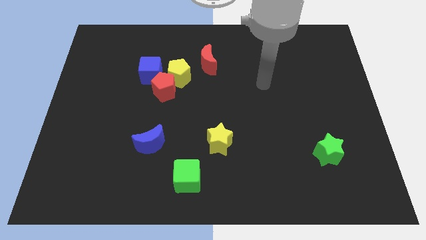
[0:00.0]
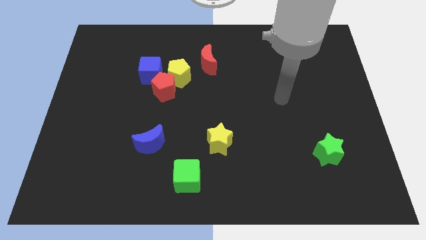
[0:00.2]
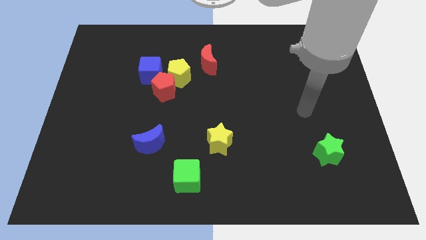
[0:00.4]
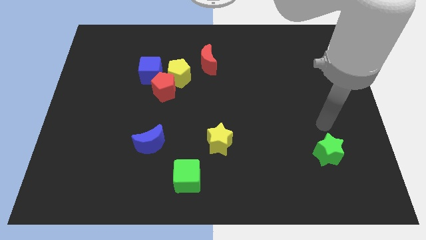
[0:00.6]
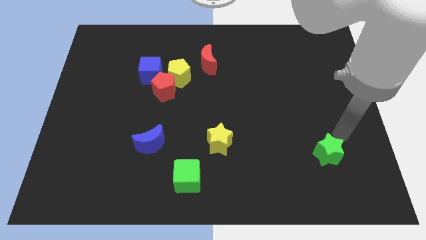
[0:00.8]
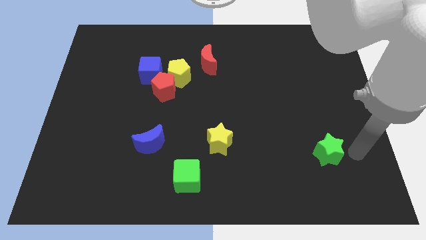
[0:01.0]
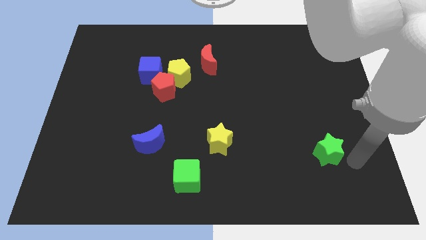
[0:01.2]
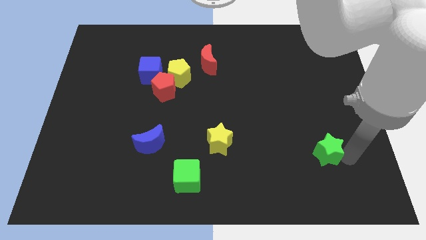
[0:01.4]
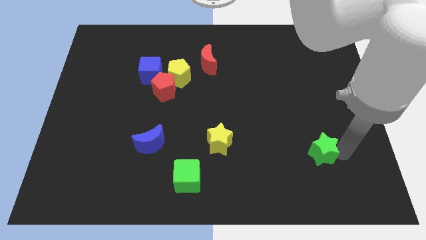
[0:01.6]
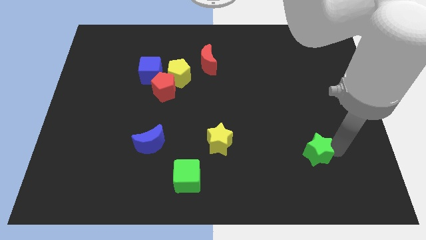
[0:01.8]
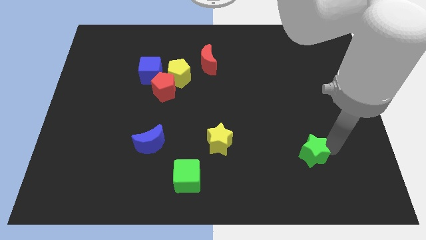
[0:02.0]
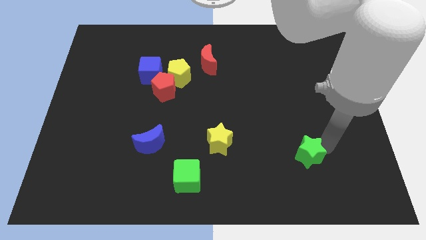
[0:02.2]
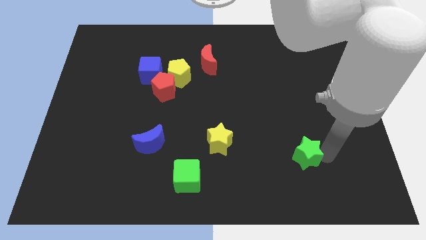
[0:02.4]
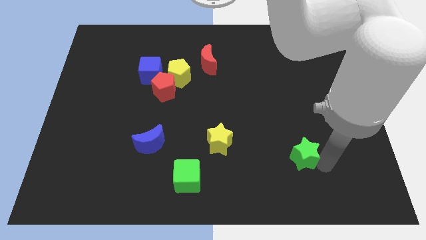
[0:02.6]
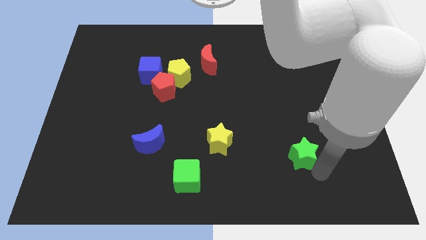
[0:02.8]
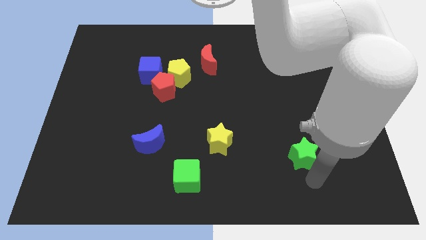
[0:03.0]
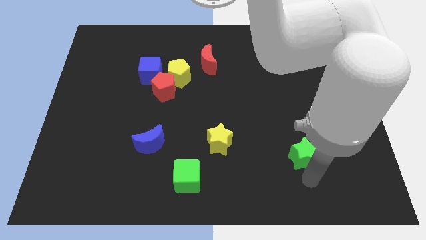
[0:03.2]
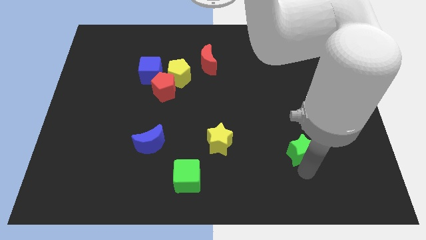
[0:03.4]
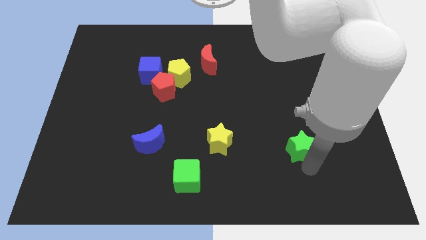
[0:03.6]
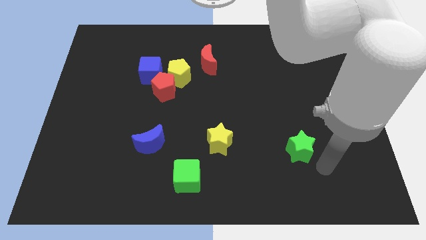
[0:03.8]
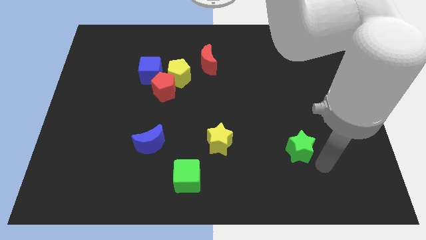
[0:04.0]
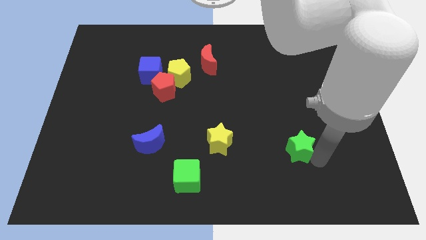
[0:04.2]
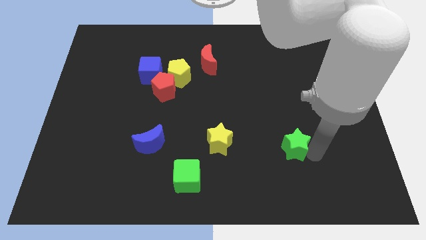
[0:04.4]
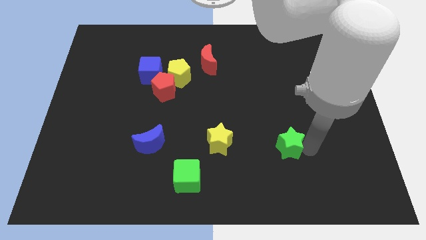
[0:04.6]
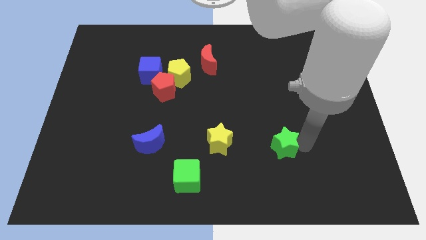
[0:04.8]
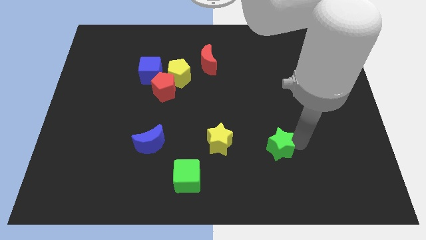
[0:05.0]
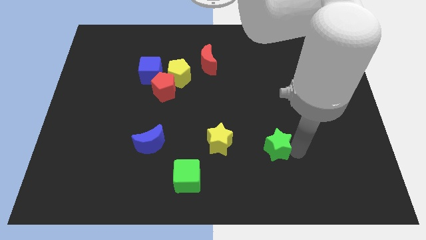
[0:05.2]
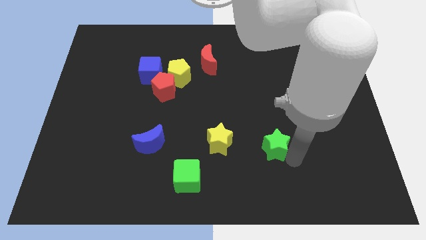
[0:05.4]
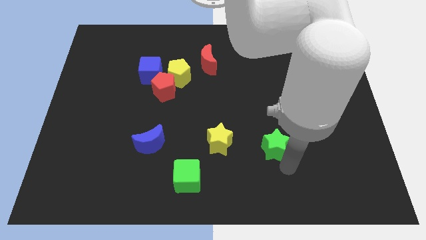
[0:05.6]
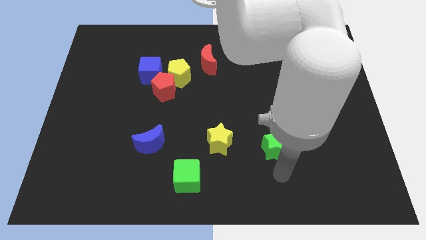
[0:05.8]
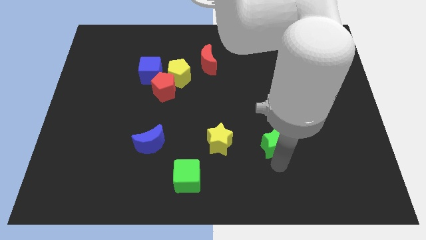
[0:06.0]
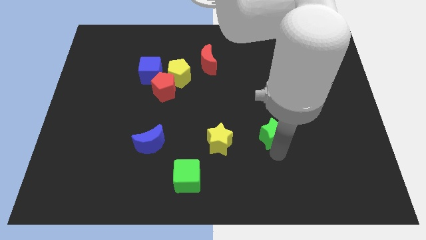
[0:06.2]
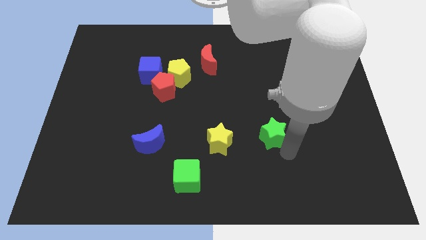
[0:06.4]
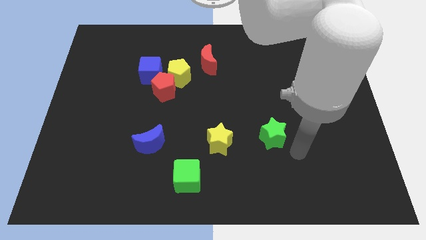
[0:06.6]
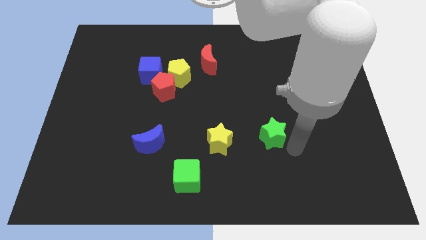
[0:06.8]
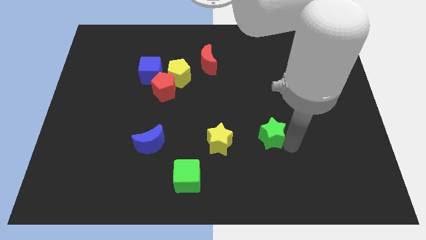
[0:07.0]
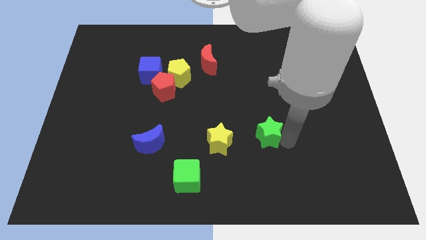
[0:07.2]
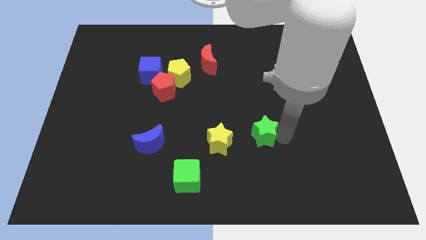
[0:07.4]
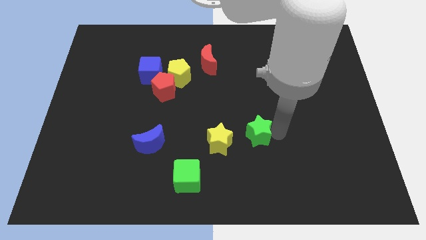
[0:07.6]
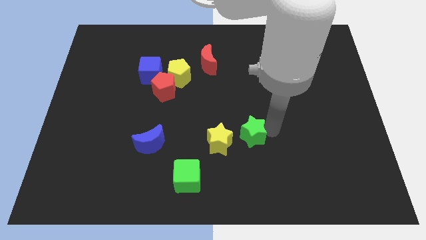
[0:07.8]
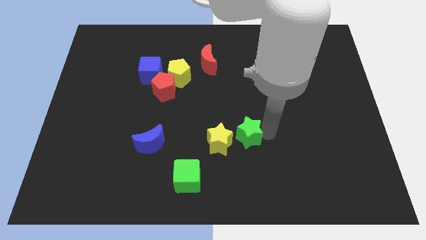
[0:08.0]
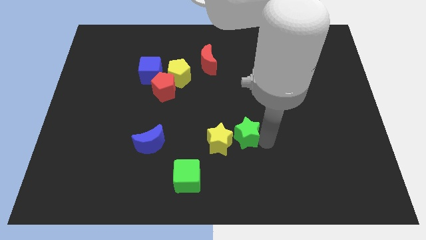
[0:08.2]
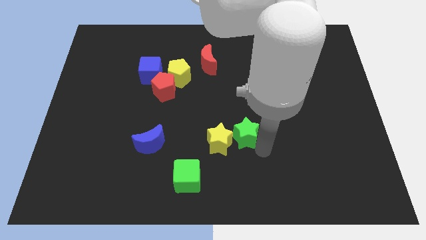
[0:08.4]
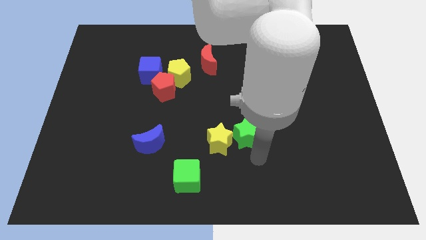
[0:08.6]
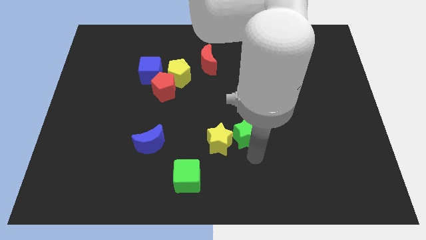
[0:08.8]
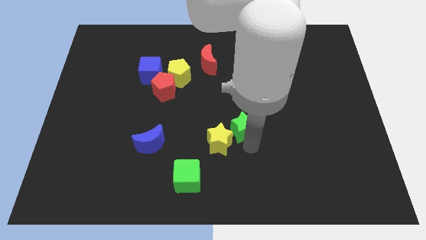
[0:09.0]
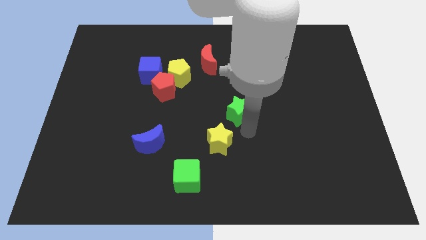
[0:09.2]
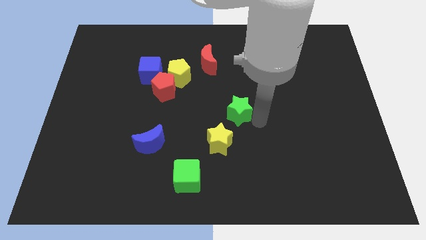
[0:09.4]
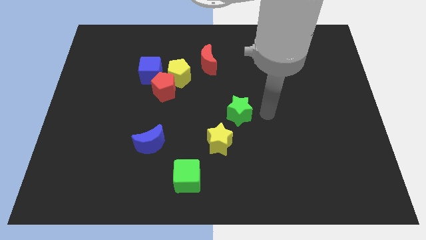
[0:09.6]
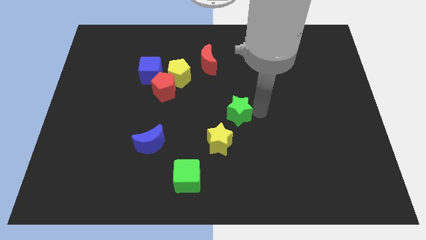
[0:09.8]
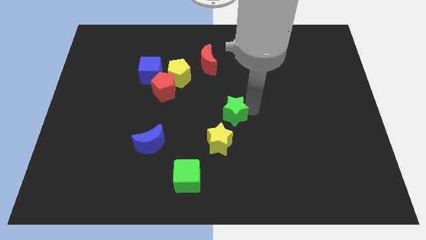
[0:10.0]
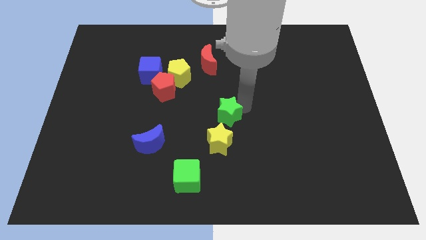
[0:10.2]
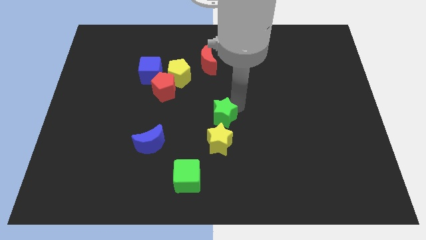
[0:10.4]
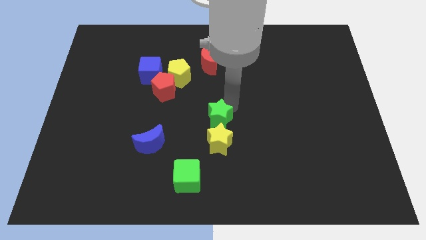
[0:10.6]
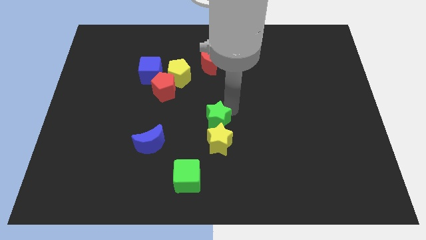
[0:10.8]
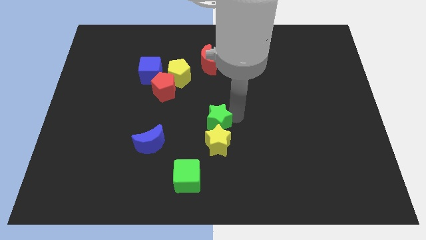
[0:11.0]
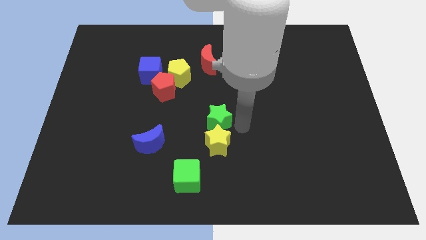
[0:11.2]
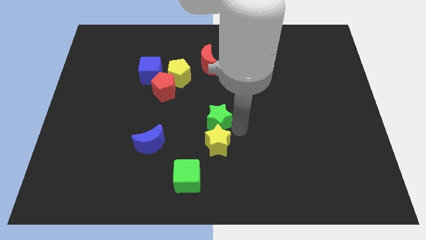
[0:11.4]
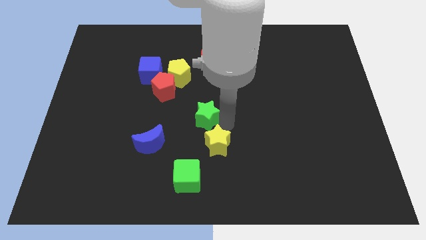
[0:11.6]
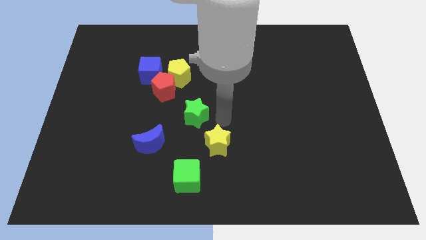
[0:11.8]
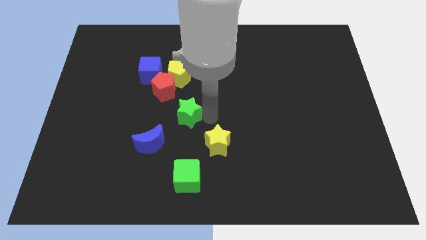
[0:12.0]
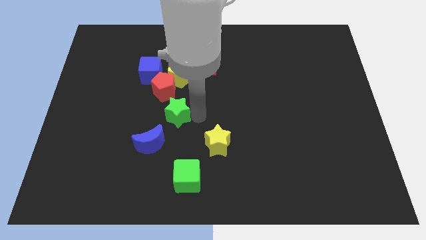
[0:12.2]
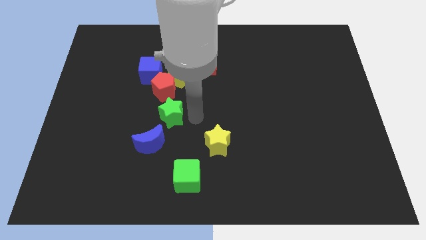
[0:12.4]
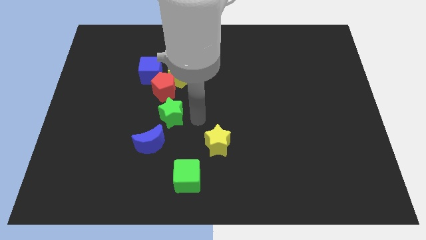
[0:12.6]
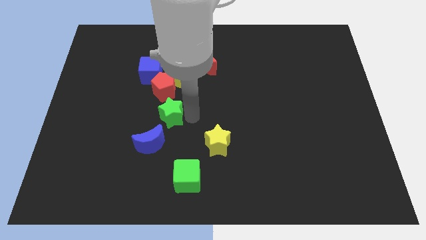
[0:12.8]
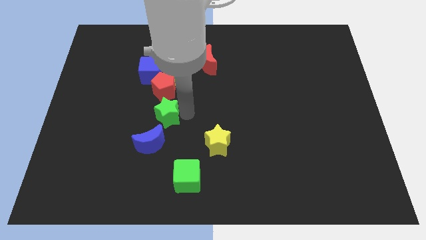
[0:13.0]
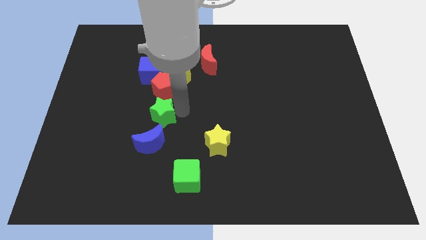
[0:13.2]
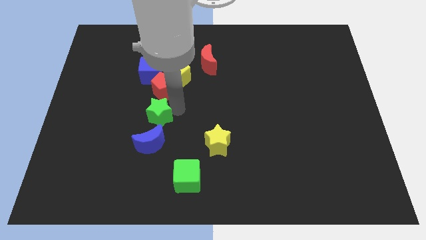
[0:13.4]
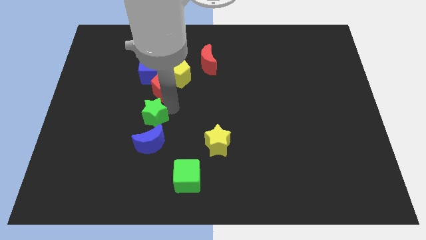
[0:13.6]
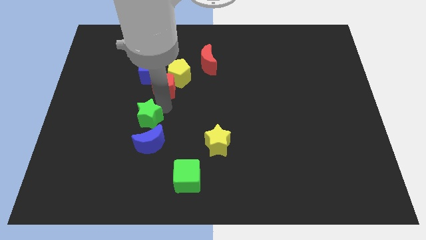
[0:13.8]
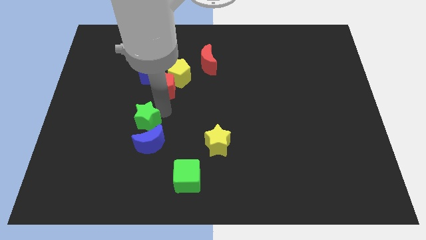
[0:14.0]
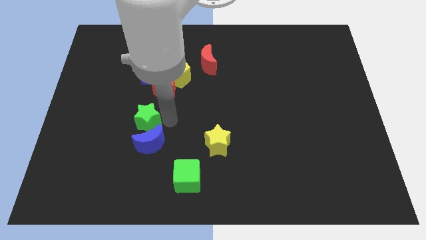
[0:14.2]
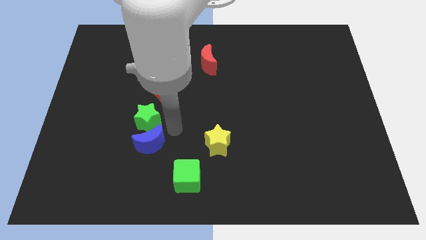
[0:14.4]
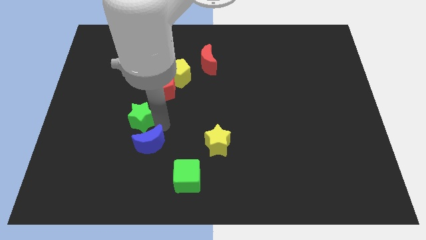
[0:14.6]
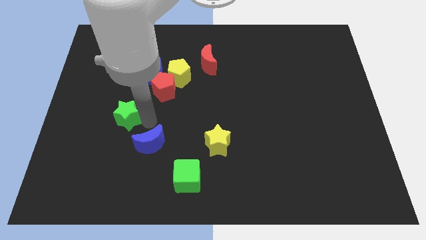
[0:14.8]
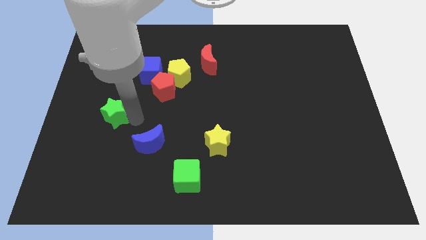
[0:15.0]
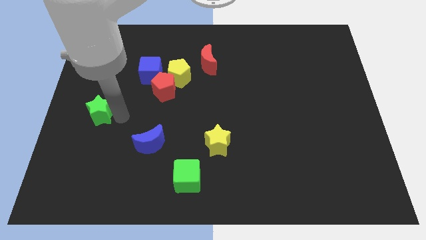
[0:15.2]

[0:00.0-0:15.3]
slide the green star to the left side
